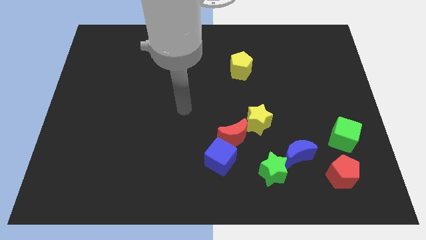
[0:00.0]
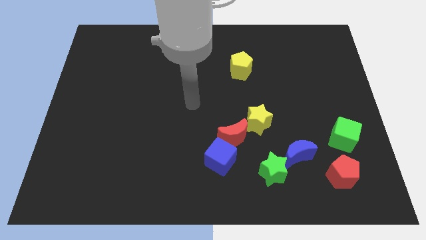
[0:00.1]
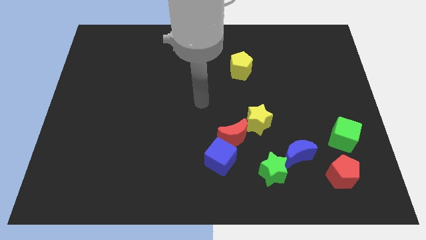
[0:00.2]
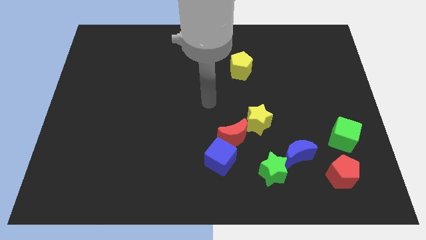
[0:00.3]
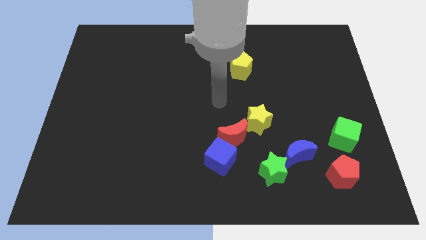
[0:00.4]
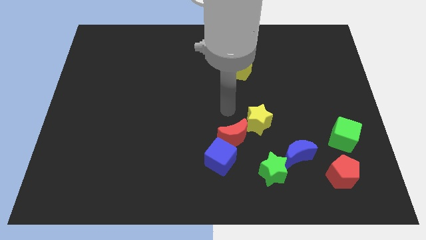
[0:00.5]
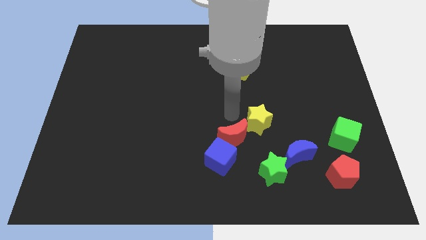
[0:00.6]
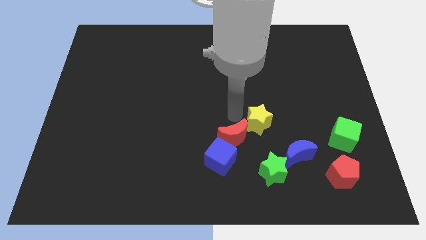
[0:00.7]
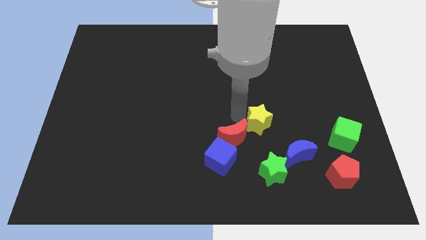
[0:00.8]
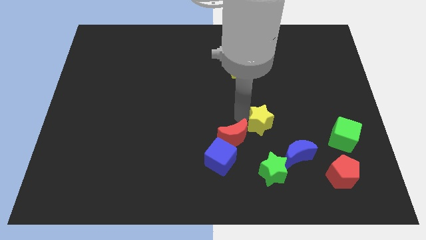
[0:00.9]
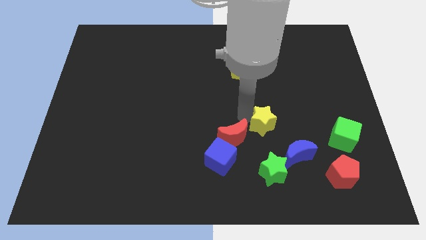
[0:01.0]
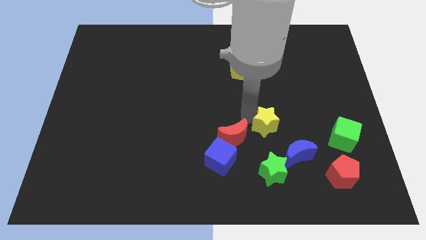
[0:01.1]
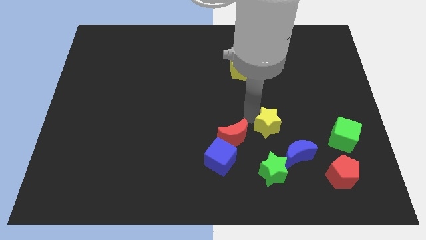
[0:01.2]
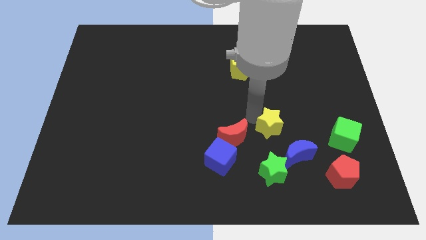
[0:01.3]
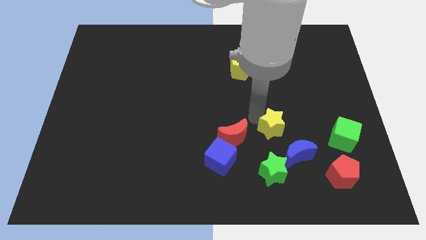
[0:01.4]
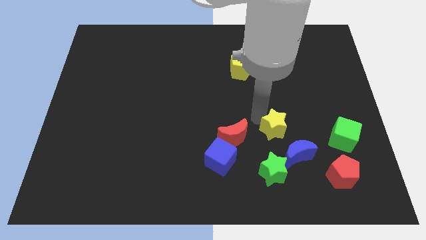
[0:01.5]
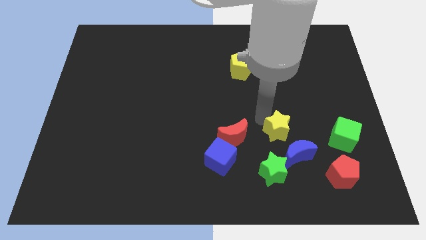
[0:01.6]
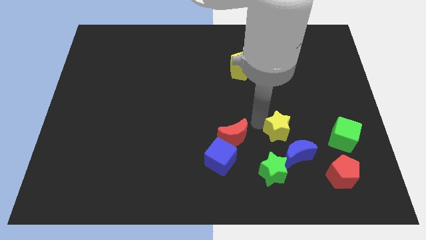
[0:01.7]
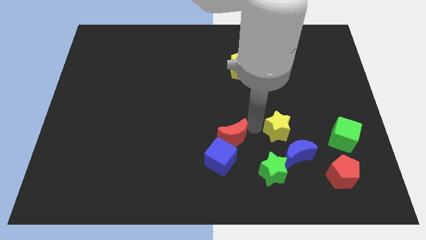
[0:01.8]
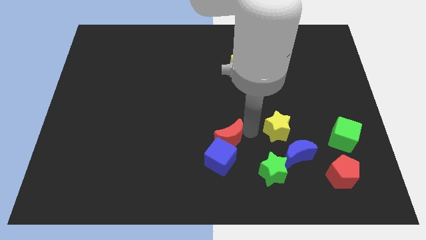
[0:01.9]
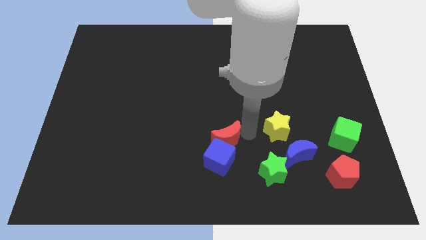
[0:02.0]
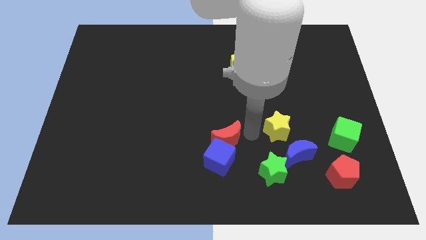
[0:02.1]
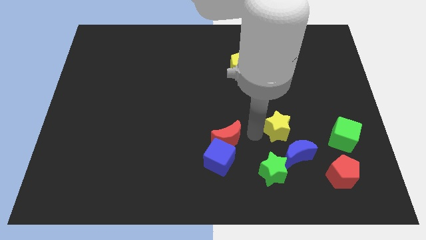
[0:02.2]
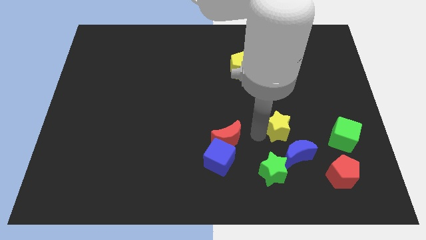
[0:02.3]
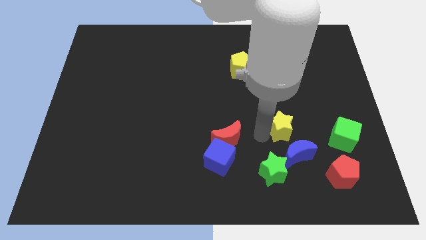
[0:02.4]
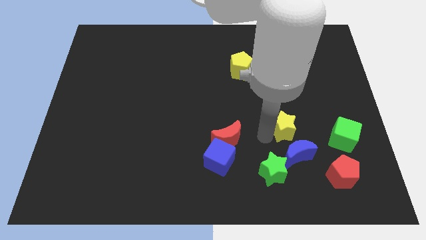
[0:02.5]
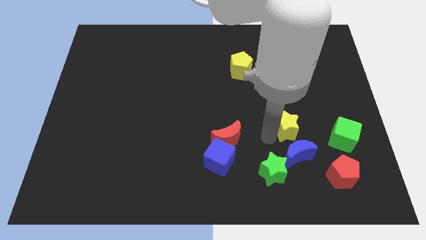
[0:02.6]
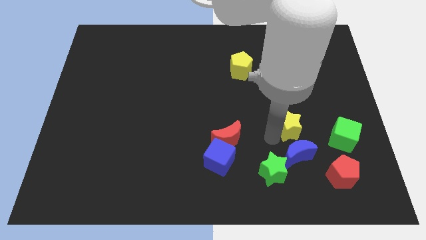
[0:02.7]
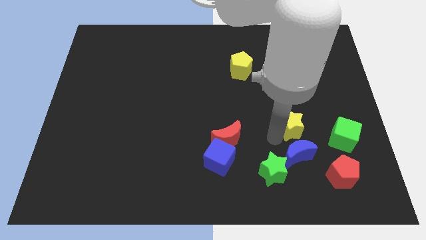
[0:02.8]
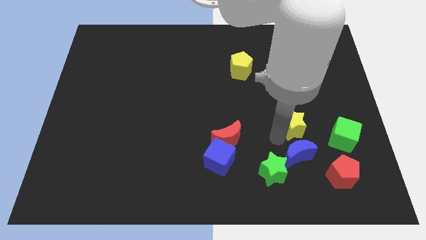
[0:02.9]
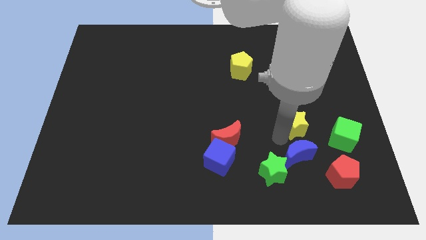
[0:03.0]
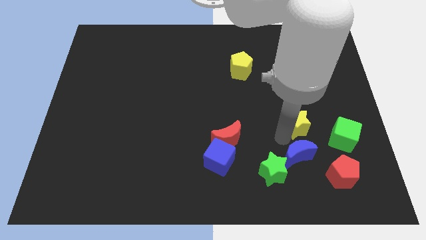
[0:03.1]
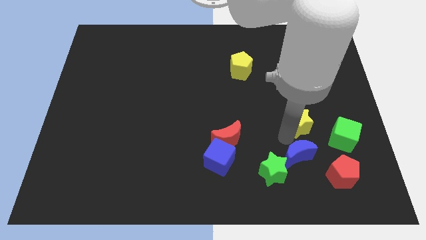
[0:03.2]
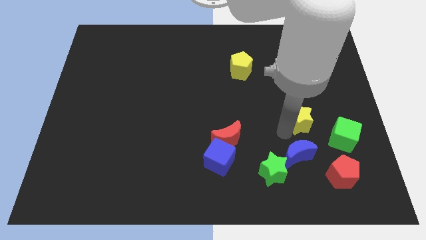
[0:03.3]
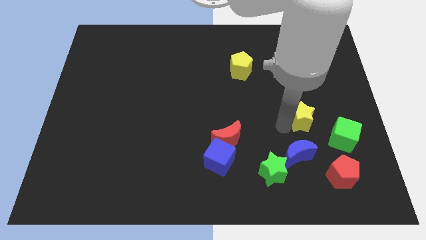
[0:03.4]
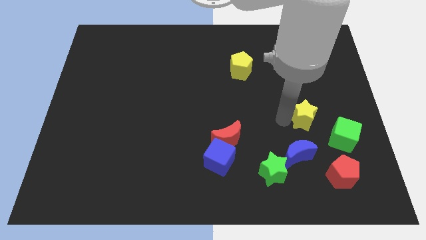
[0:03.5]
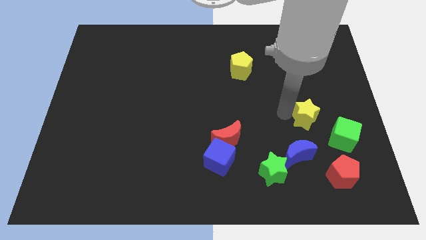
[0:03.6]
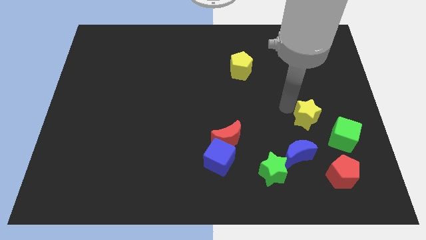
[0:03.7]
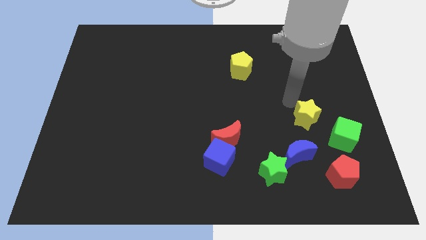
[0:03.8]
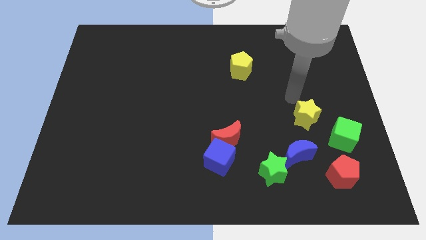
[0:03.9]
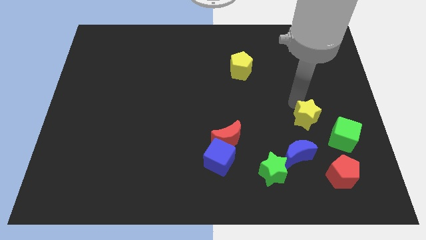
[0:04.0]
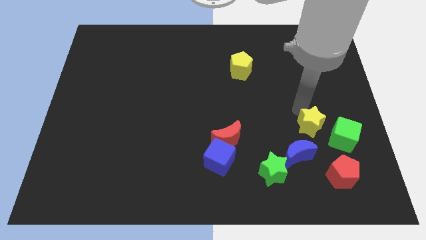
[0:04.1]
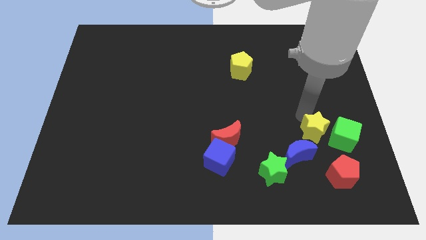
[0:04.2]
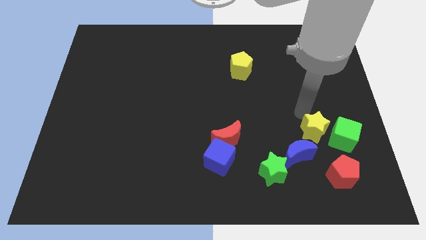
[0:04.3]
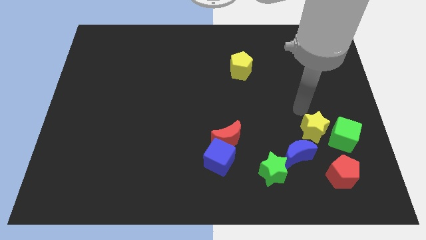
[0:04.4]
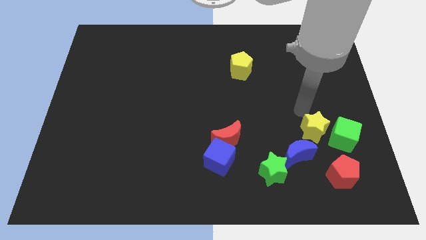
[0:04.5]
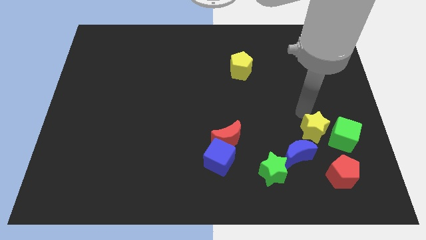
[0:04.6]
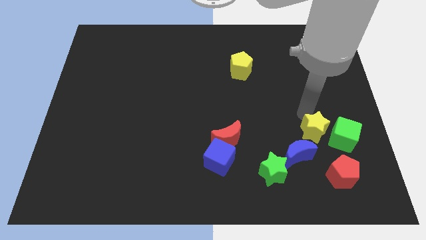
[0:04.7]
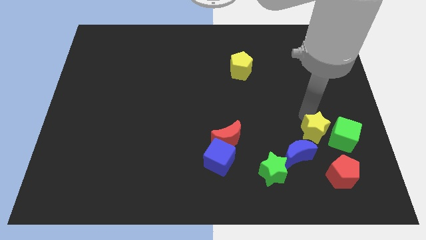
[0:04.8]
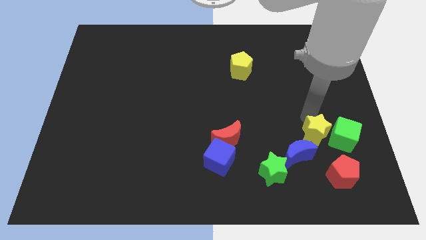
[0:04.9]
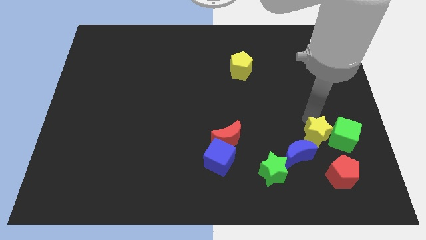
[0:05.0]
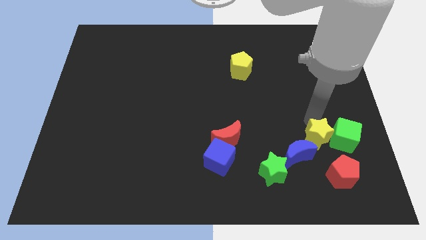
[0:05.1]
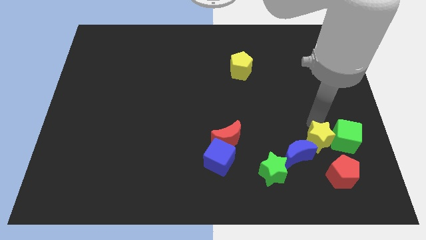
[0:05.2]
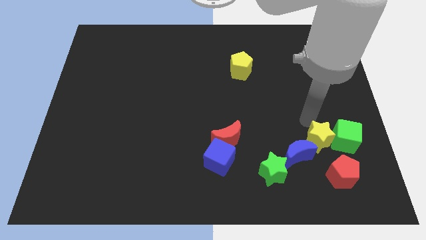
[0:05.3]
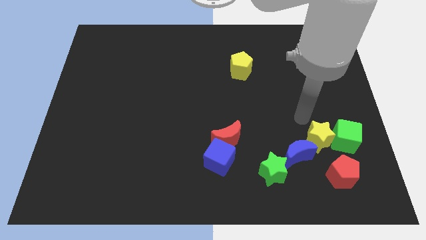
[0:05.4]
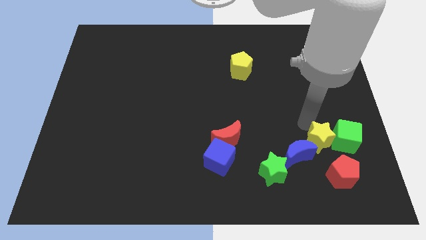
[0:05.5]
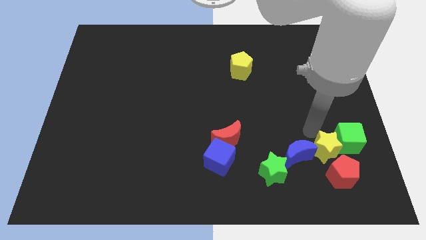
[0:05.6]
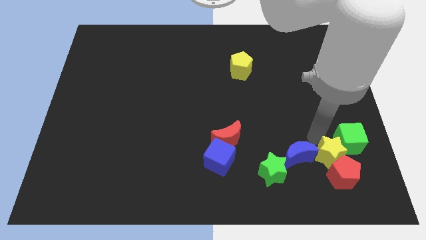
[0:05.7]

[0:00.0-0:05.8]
push the yellow star towards the red pentagon

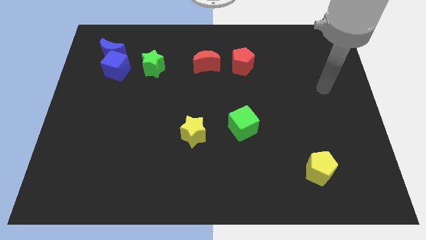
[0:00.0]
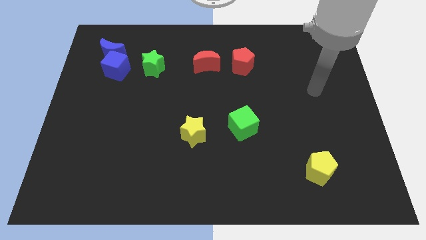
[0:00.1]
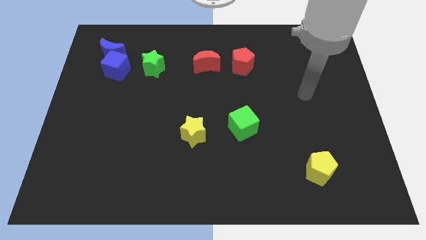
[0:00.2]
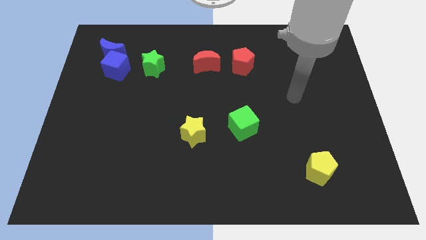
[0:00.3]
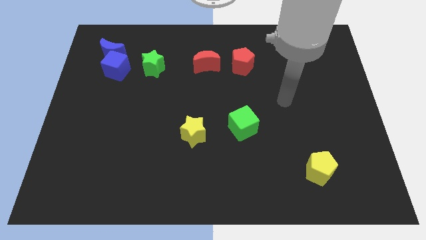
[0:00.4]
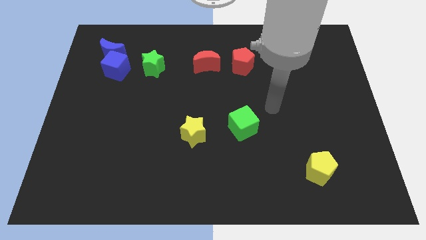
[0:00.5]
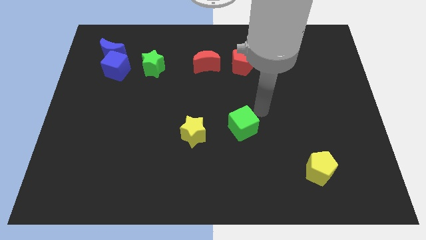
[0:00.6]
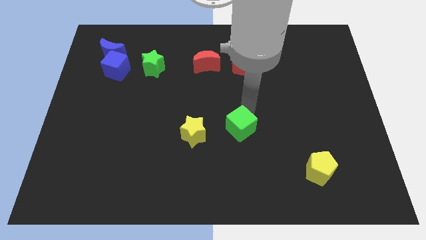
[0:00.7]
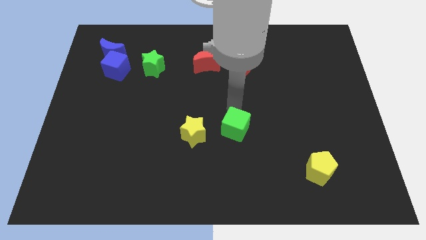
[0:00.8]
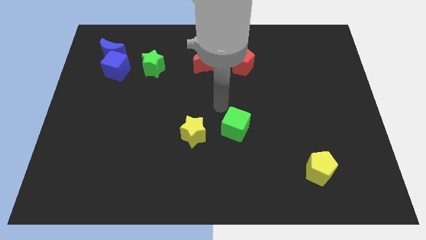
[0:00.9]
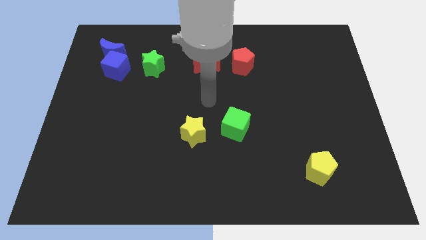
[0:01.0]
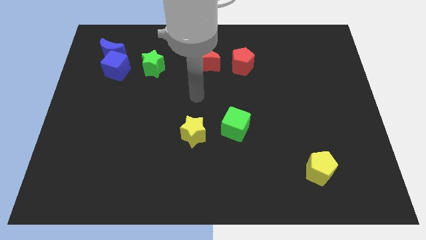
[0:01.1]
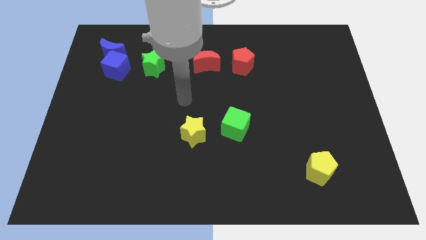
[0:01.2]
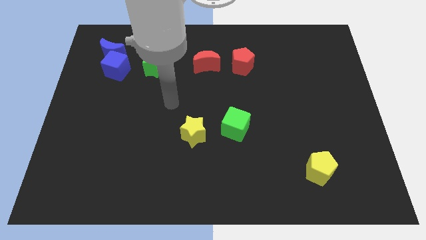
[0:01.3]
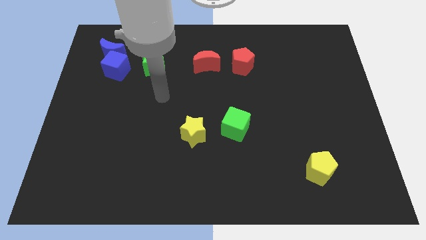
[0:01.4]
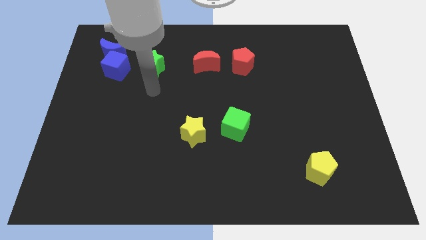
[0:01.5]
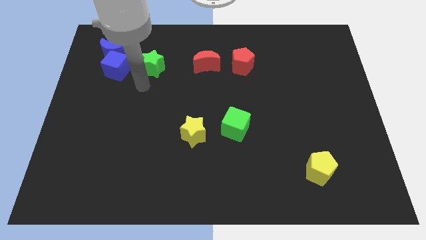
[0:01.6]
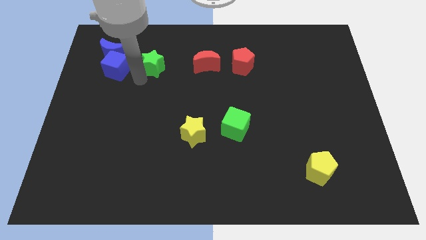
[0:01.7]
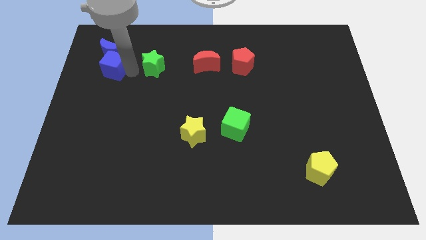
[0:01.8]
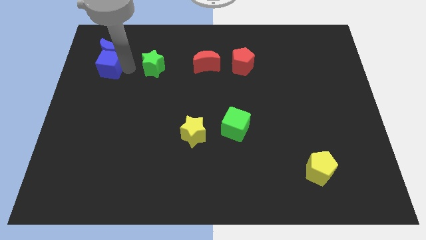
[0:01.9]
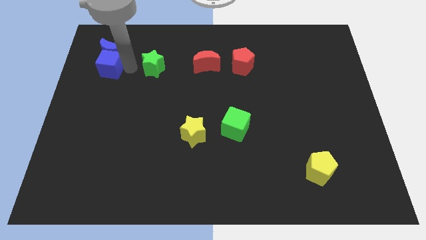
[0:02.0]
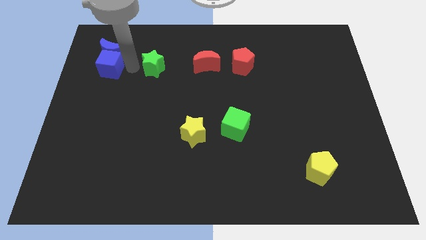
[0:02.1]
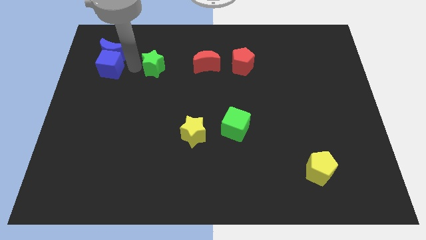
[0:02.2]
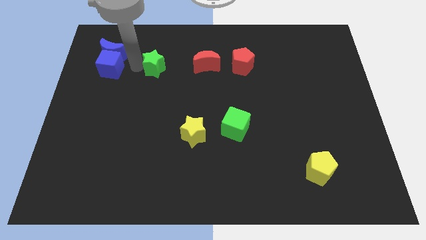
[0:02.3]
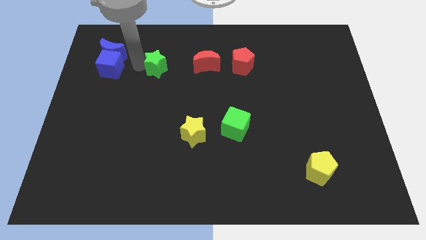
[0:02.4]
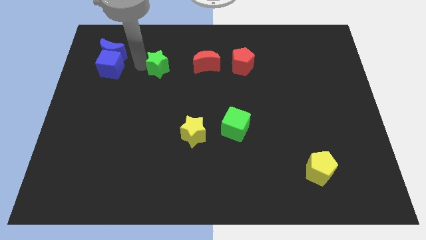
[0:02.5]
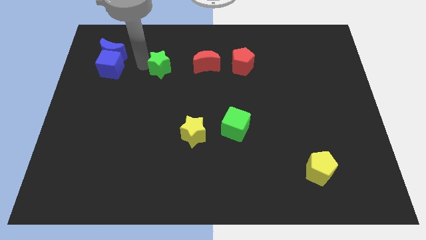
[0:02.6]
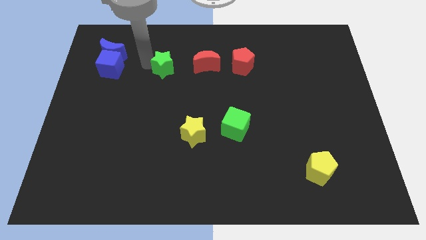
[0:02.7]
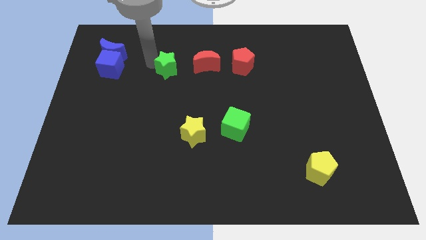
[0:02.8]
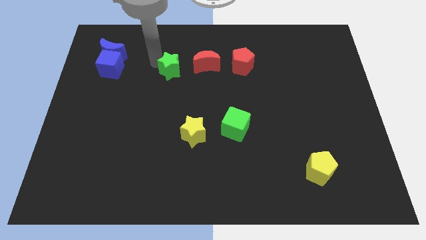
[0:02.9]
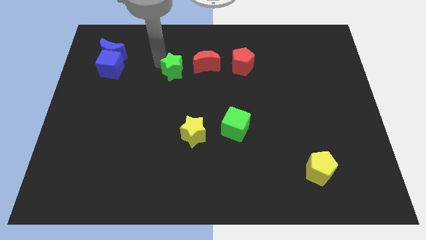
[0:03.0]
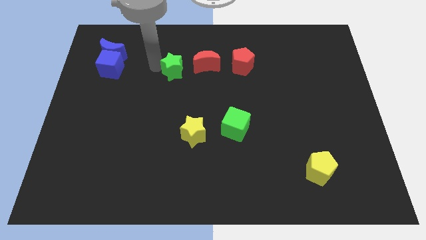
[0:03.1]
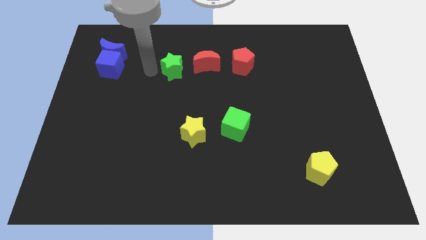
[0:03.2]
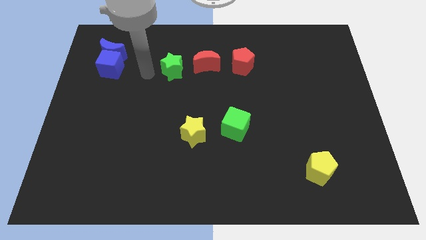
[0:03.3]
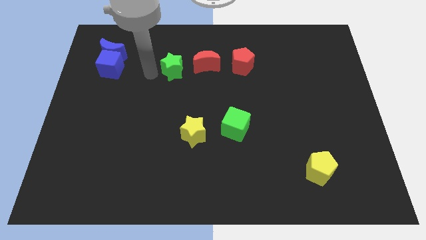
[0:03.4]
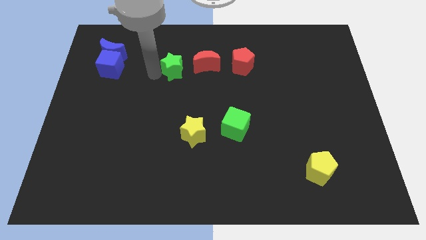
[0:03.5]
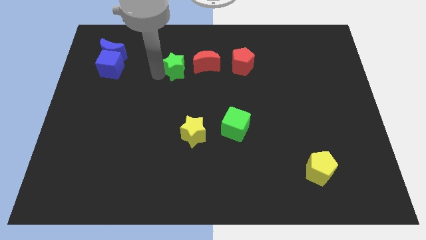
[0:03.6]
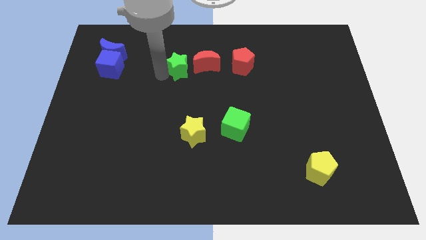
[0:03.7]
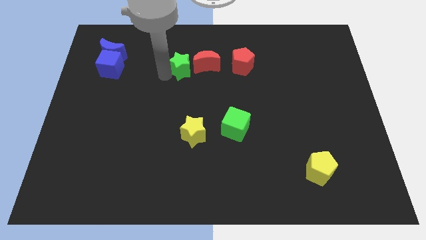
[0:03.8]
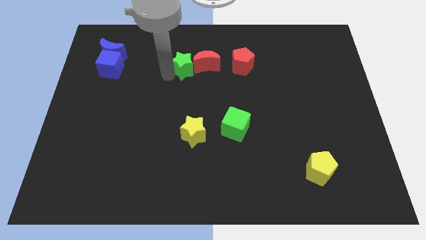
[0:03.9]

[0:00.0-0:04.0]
put the green star towards the red moon
